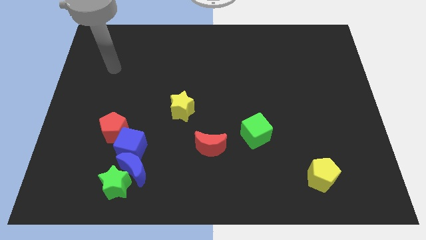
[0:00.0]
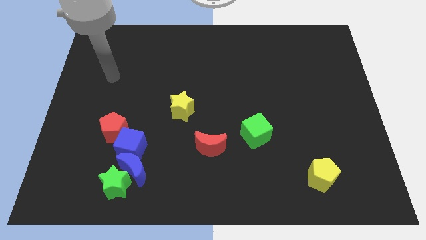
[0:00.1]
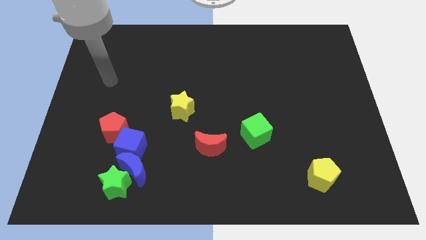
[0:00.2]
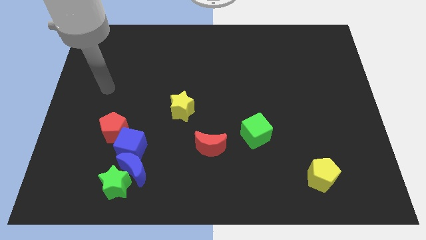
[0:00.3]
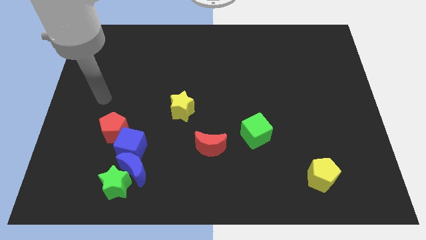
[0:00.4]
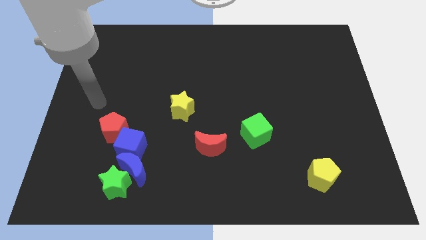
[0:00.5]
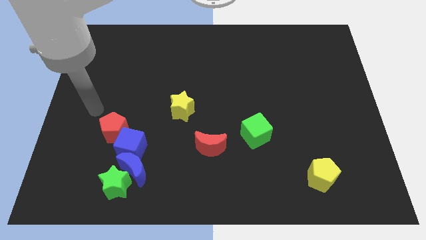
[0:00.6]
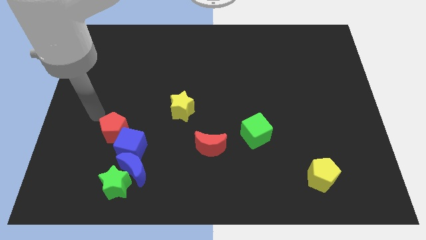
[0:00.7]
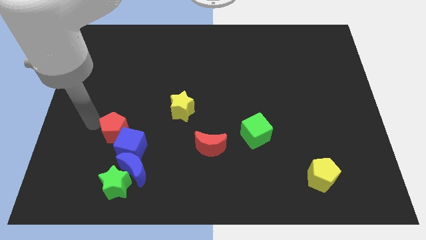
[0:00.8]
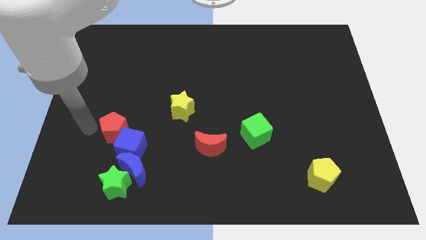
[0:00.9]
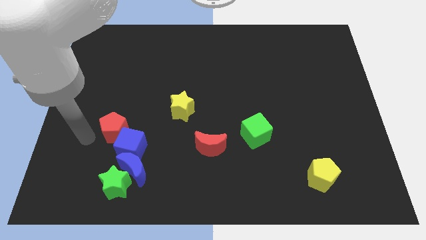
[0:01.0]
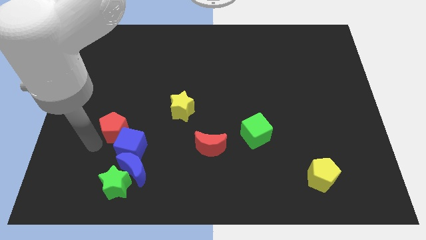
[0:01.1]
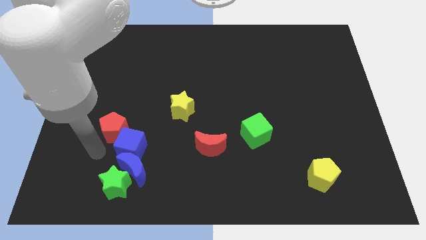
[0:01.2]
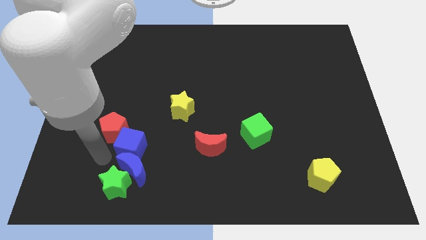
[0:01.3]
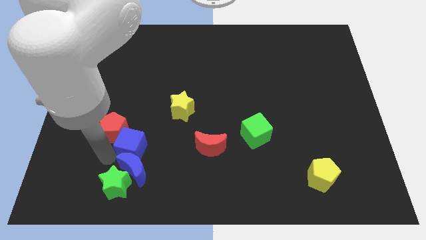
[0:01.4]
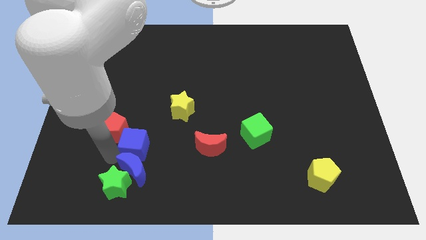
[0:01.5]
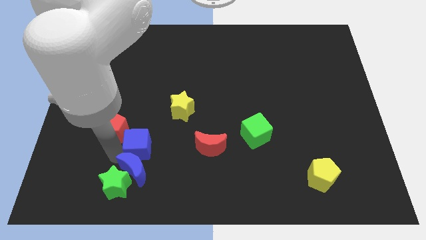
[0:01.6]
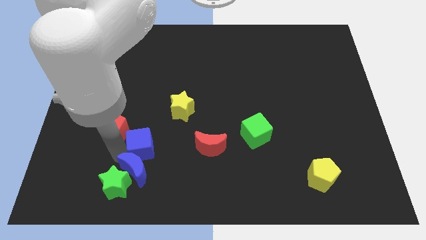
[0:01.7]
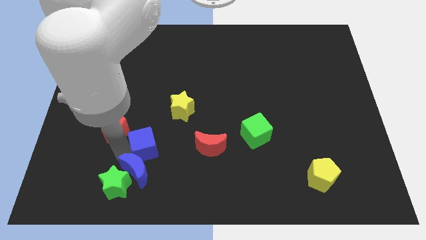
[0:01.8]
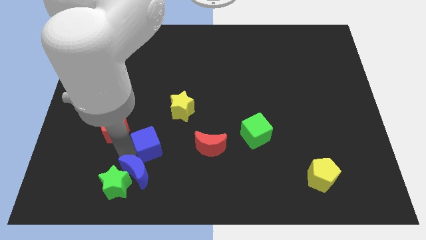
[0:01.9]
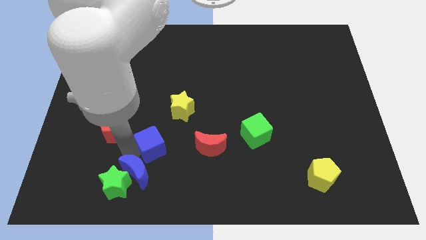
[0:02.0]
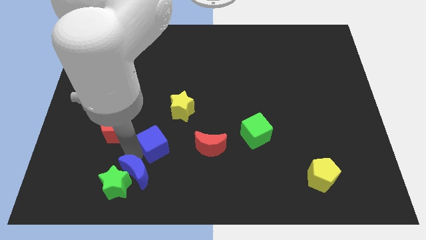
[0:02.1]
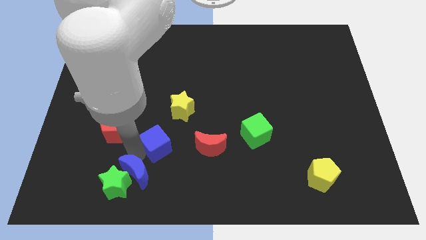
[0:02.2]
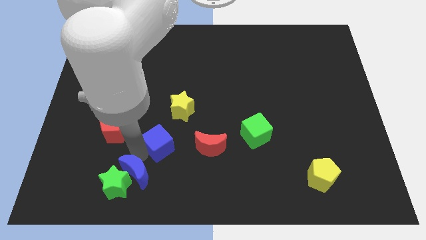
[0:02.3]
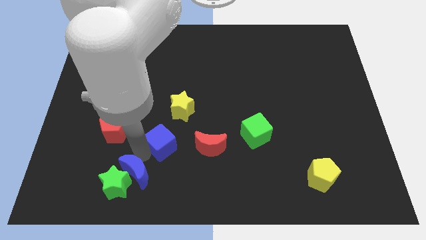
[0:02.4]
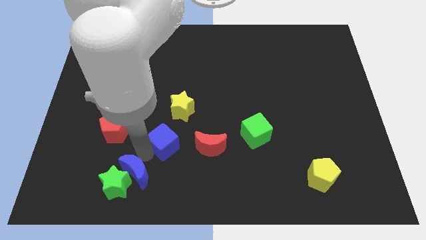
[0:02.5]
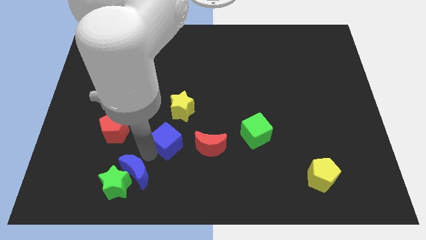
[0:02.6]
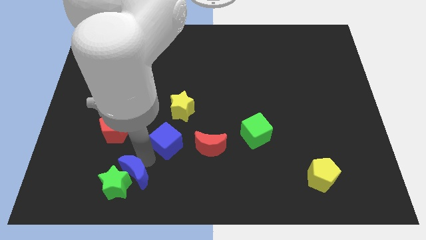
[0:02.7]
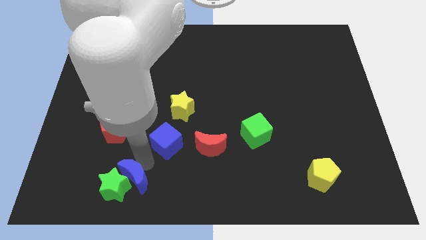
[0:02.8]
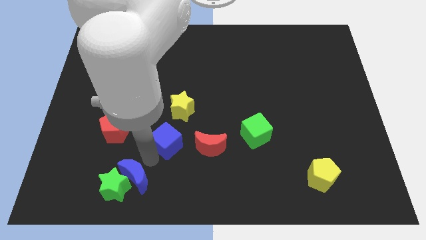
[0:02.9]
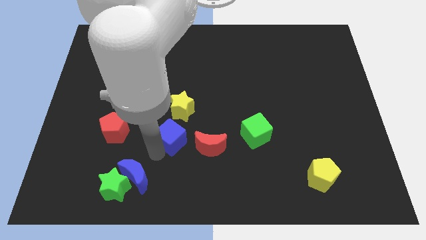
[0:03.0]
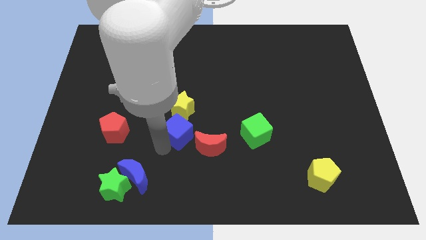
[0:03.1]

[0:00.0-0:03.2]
move the blue cube a bit up and right diagonally

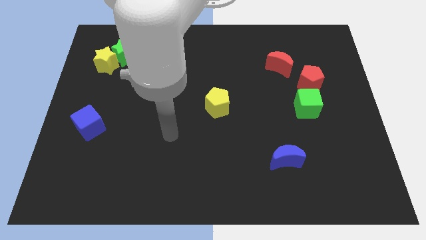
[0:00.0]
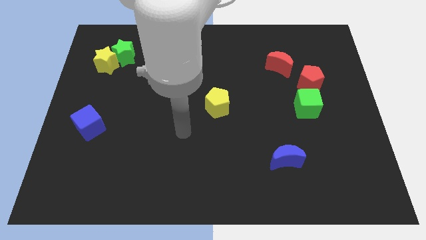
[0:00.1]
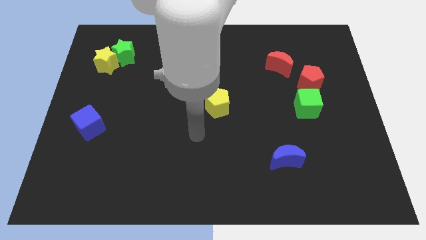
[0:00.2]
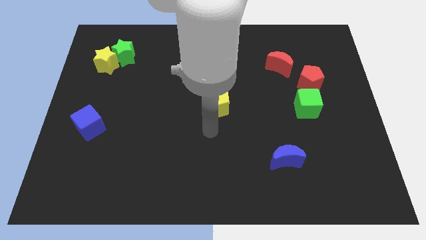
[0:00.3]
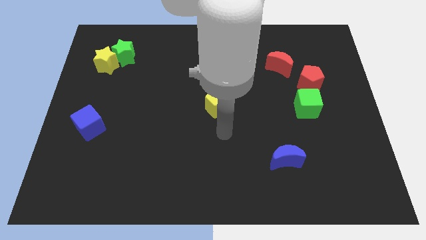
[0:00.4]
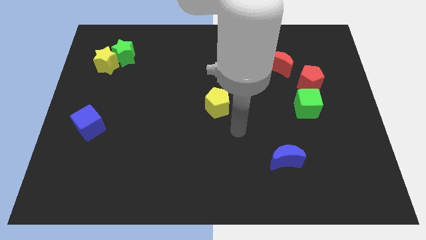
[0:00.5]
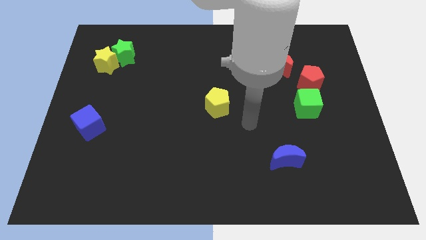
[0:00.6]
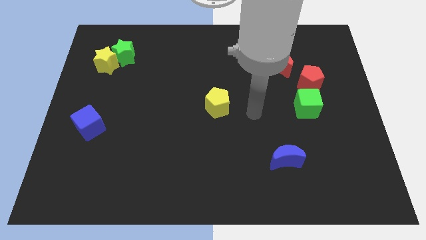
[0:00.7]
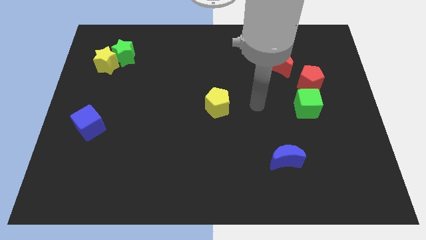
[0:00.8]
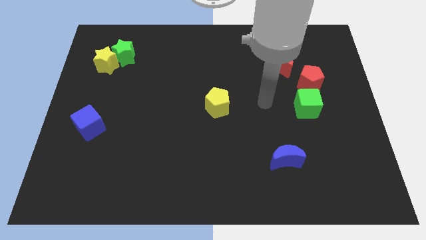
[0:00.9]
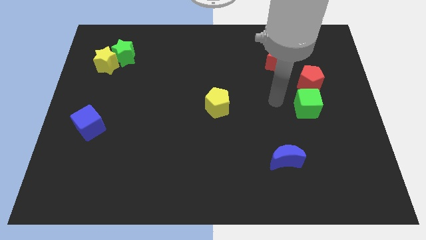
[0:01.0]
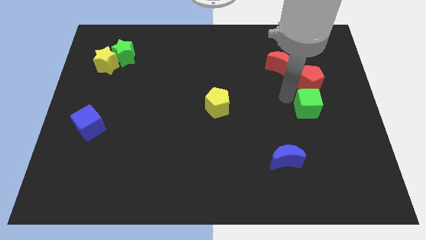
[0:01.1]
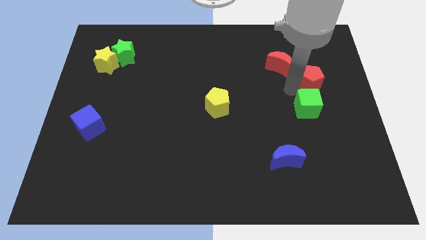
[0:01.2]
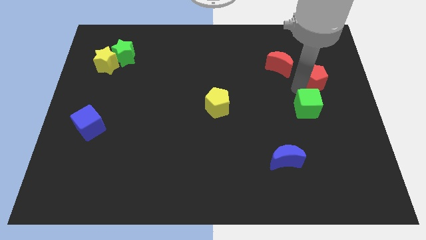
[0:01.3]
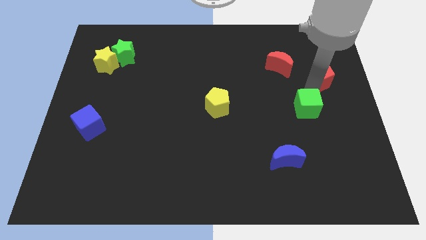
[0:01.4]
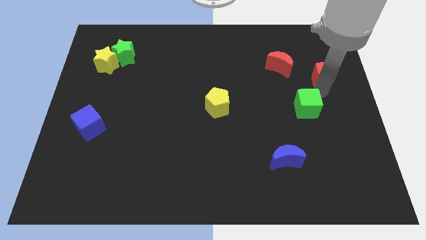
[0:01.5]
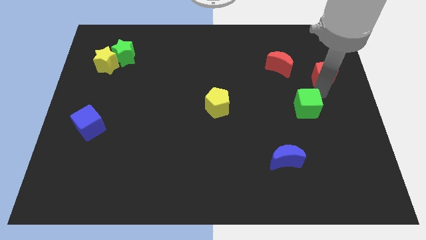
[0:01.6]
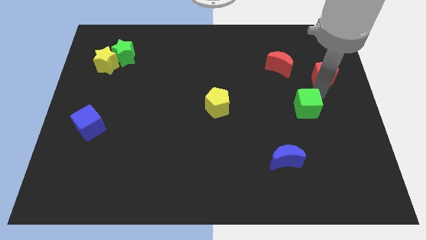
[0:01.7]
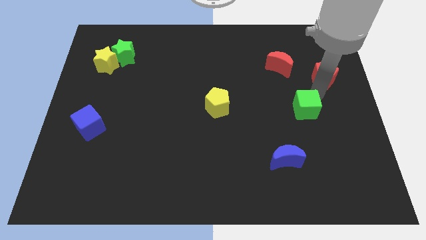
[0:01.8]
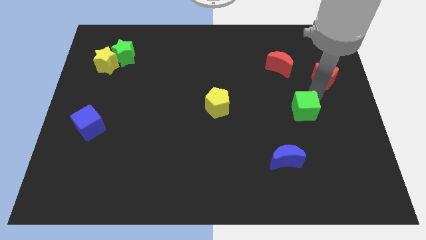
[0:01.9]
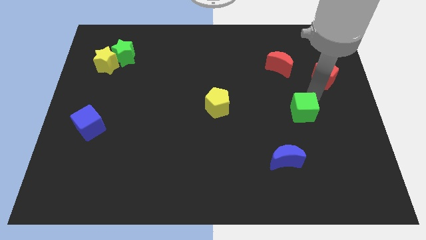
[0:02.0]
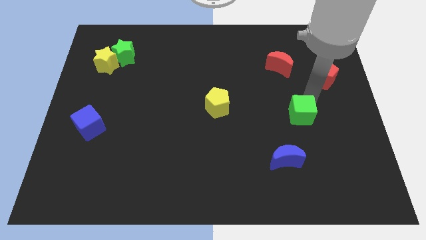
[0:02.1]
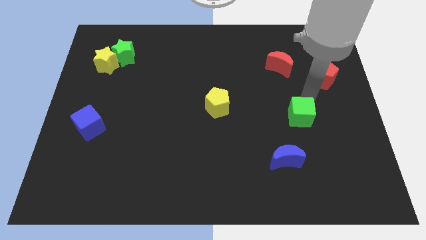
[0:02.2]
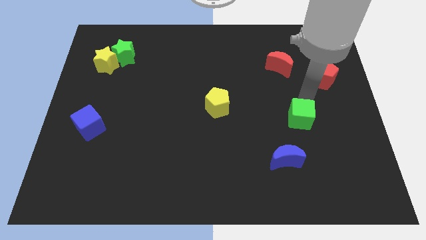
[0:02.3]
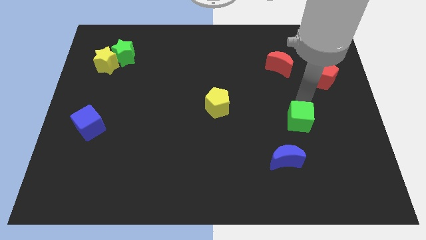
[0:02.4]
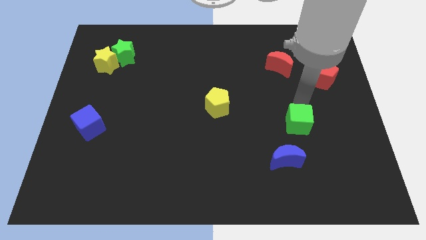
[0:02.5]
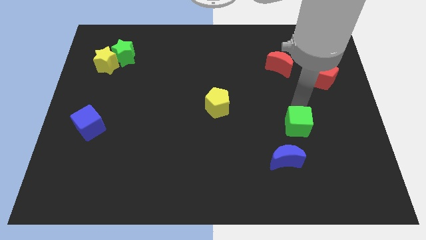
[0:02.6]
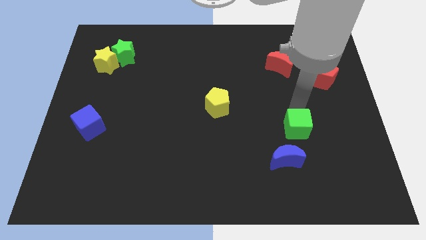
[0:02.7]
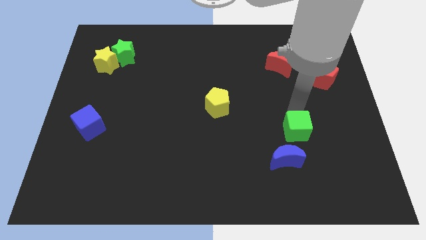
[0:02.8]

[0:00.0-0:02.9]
slightly move the green cube down and then left

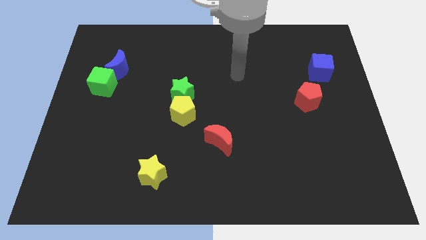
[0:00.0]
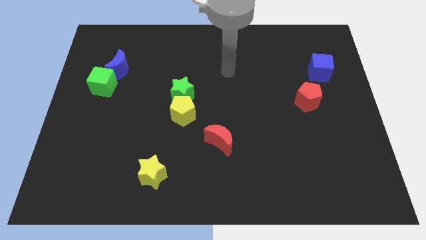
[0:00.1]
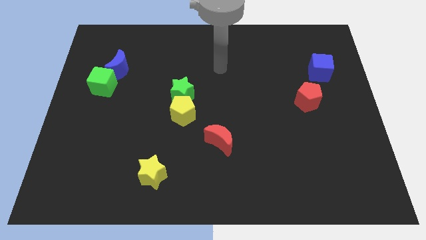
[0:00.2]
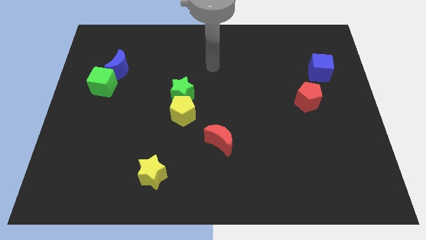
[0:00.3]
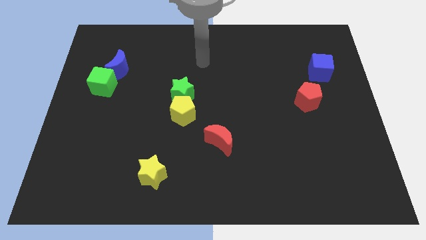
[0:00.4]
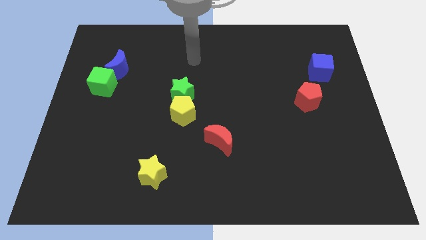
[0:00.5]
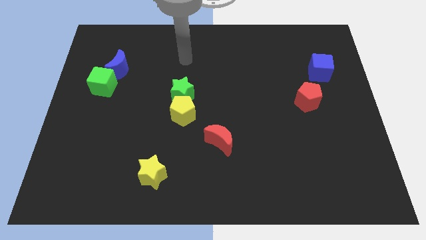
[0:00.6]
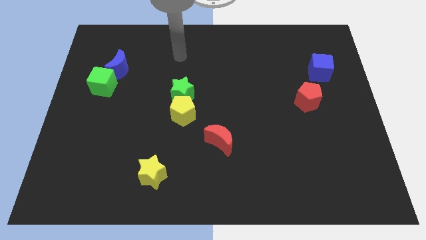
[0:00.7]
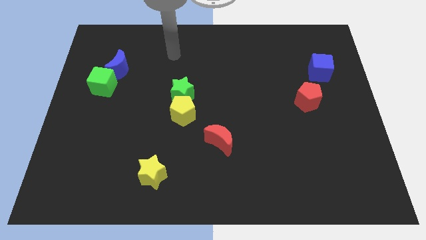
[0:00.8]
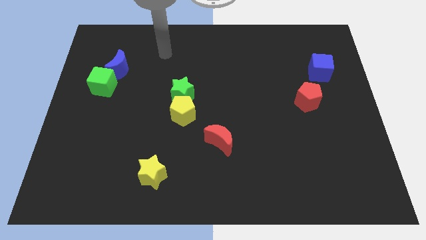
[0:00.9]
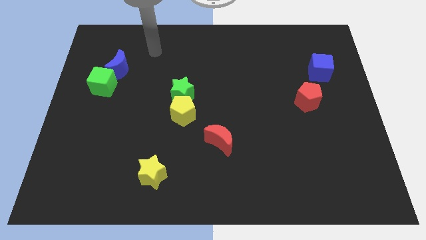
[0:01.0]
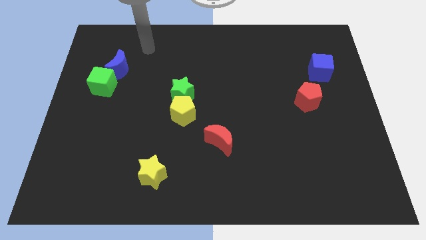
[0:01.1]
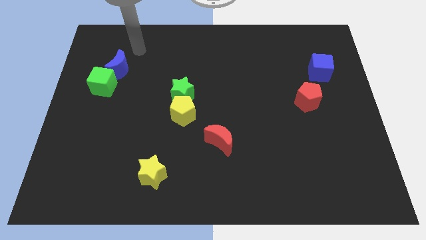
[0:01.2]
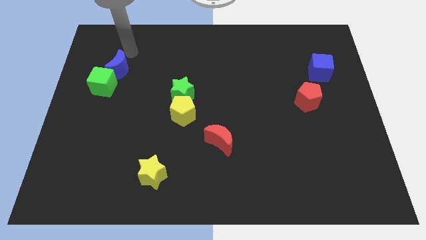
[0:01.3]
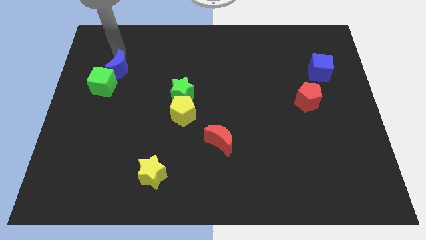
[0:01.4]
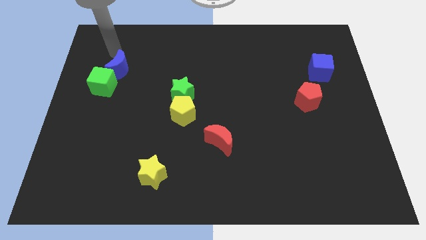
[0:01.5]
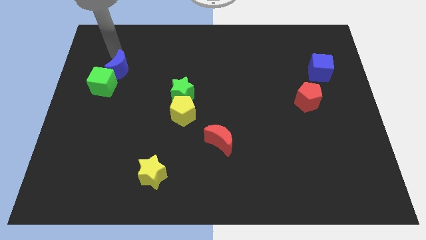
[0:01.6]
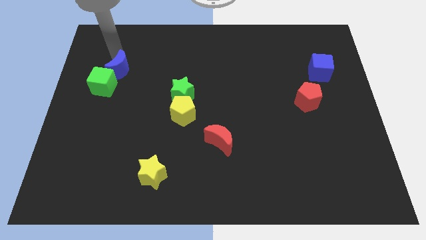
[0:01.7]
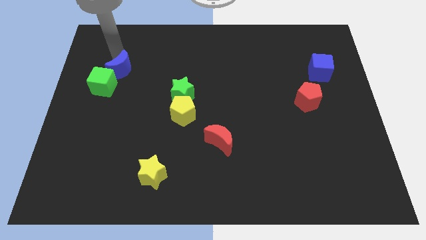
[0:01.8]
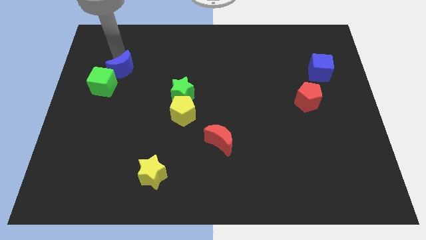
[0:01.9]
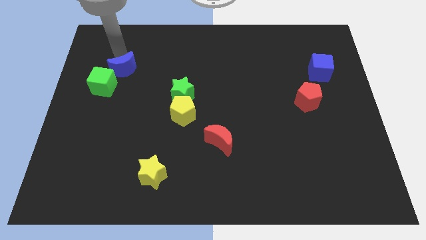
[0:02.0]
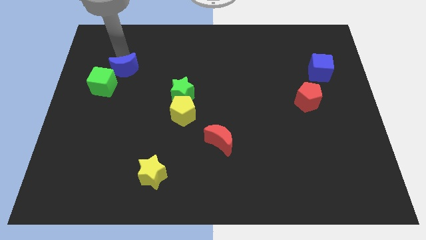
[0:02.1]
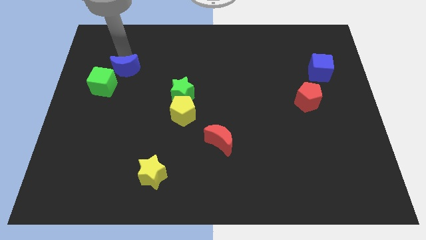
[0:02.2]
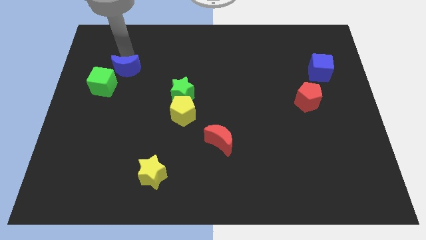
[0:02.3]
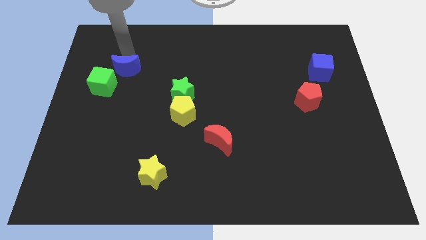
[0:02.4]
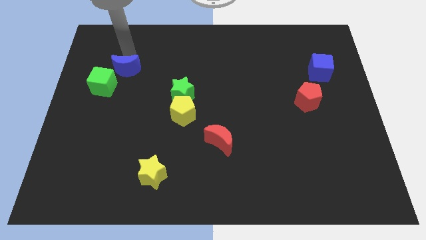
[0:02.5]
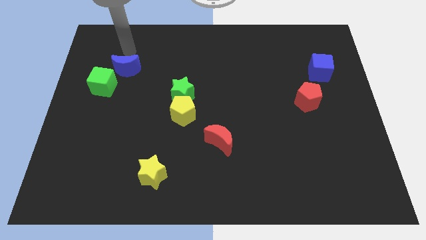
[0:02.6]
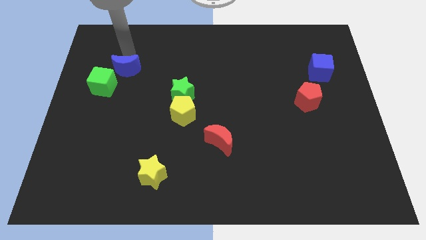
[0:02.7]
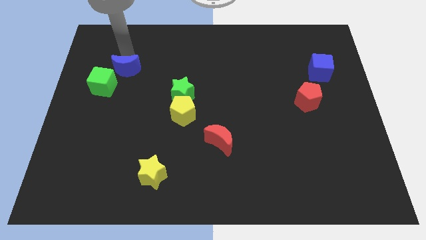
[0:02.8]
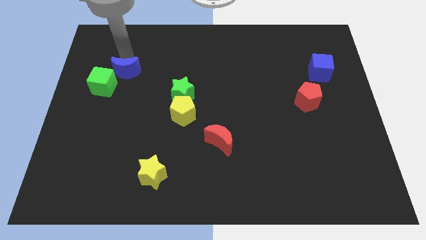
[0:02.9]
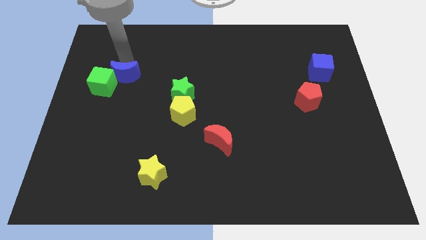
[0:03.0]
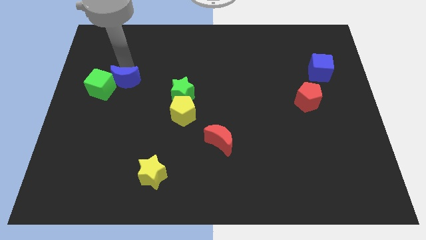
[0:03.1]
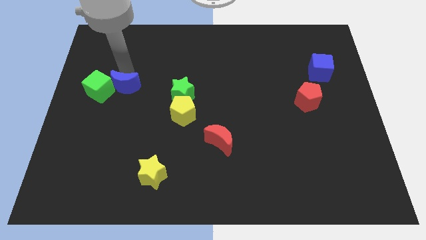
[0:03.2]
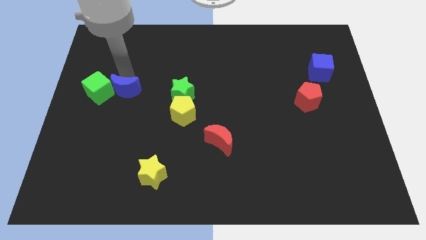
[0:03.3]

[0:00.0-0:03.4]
slide the blue moon somewhat downwards
